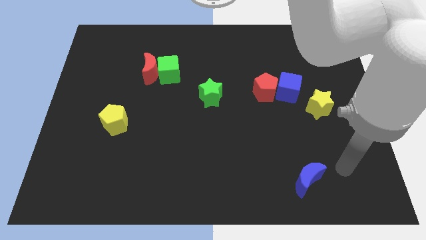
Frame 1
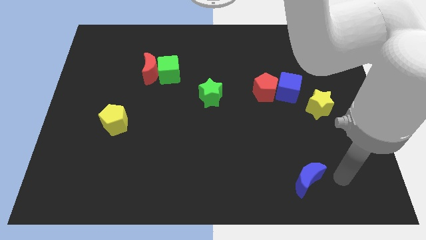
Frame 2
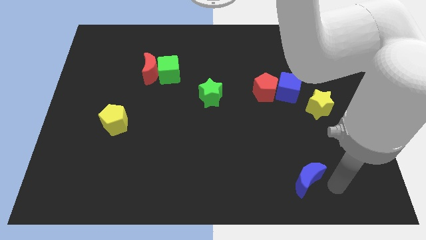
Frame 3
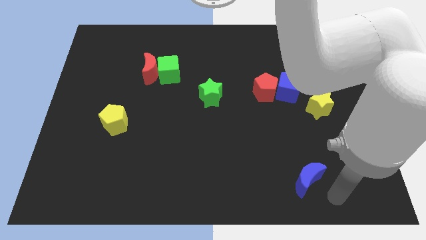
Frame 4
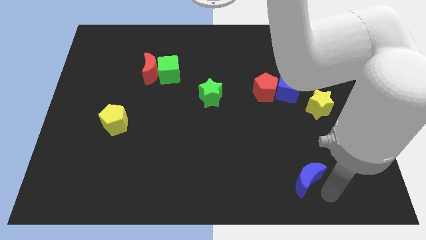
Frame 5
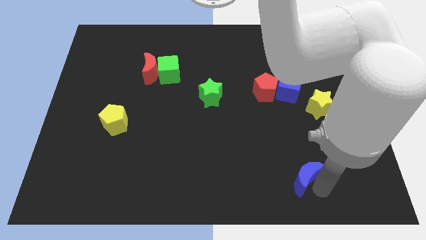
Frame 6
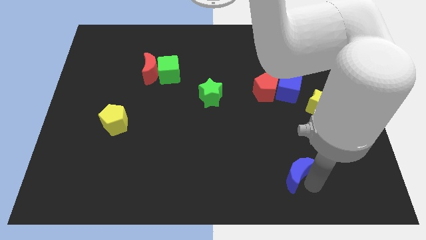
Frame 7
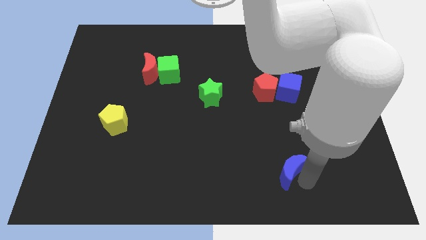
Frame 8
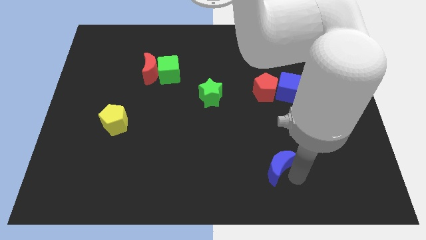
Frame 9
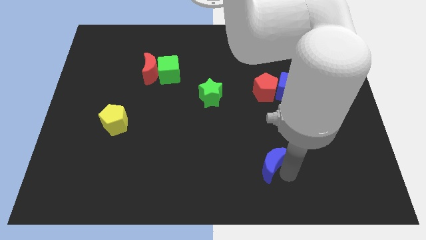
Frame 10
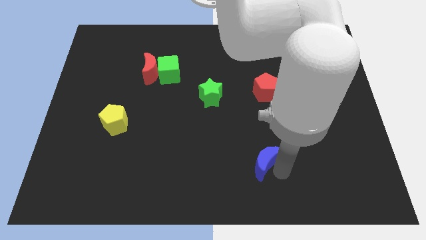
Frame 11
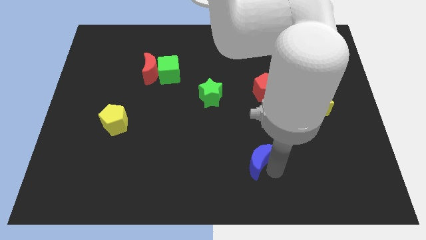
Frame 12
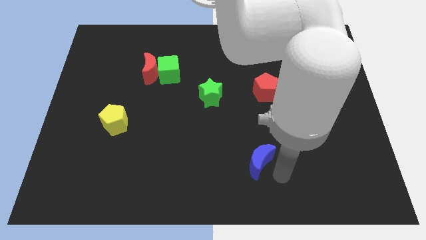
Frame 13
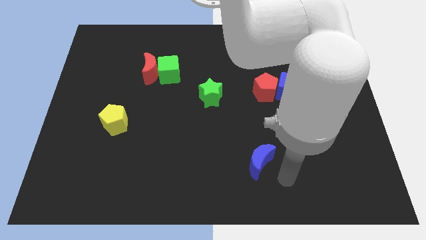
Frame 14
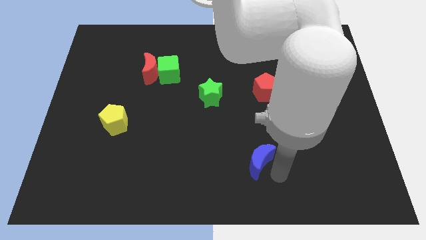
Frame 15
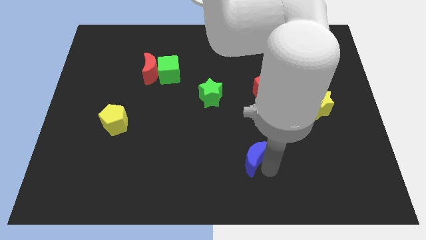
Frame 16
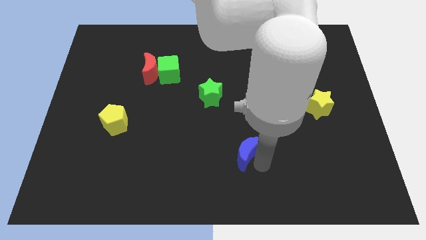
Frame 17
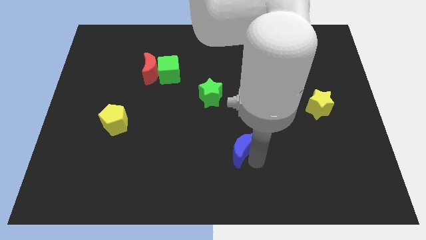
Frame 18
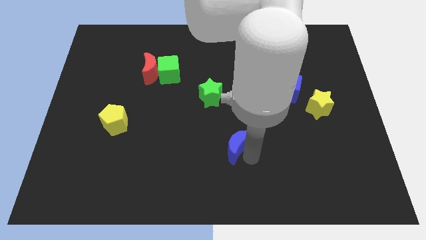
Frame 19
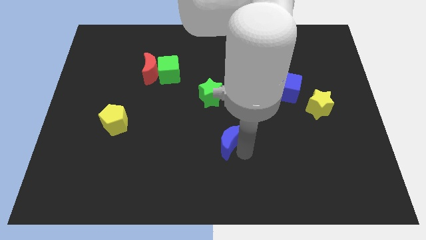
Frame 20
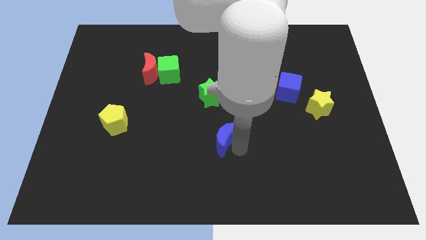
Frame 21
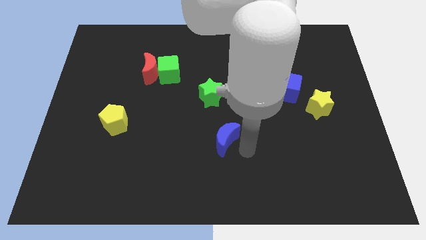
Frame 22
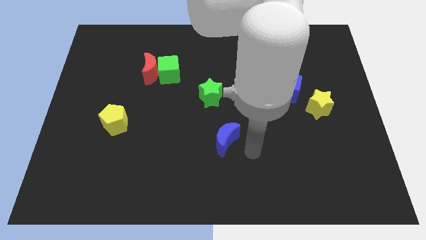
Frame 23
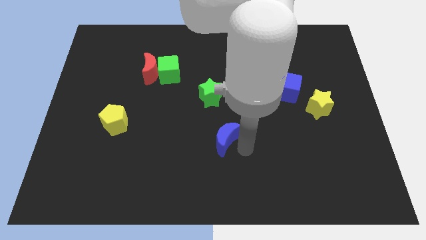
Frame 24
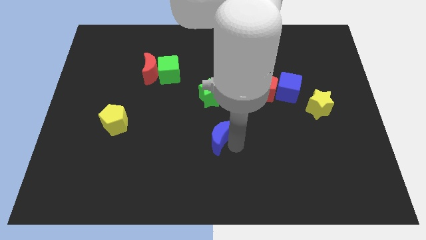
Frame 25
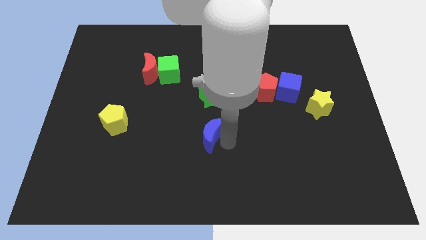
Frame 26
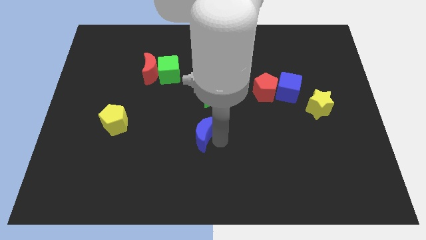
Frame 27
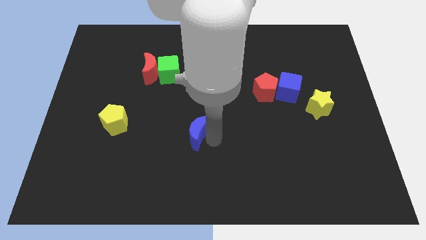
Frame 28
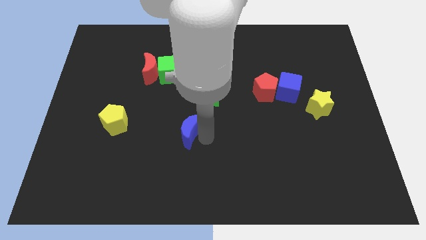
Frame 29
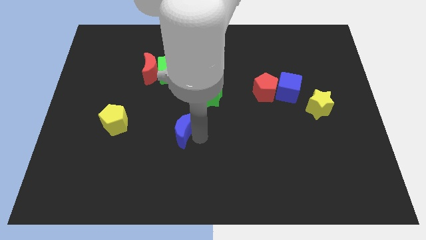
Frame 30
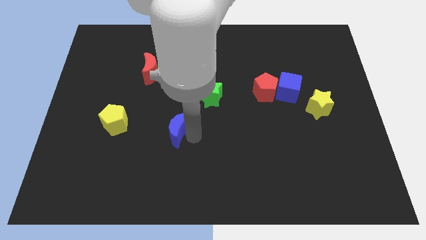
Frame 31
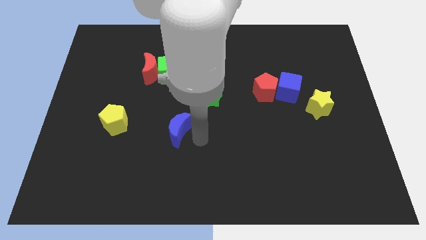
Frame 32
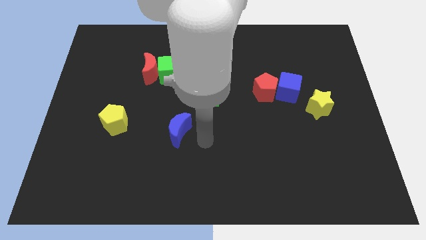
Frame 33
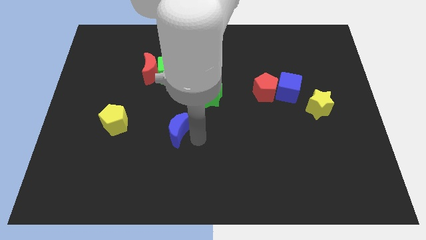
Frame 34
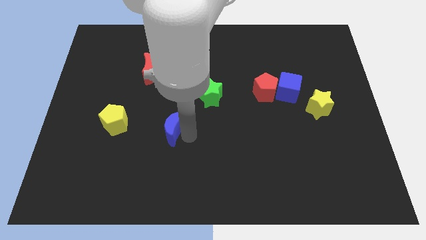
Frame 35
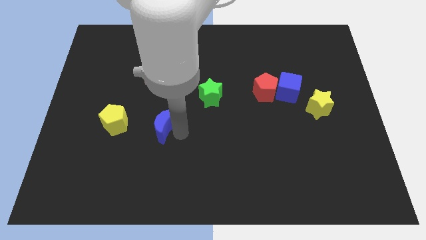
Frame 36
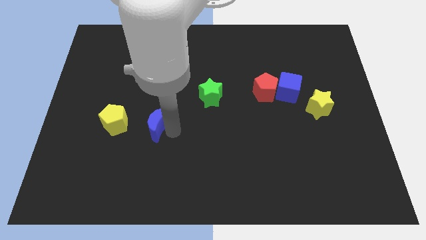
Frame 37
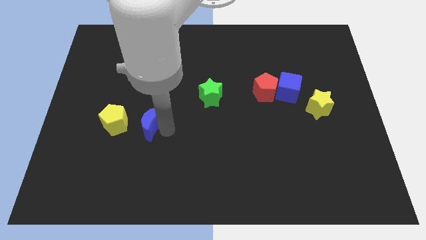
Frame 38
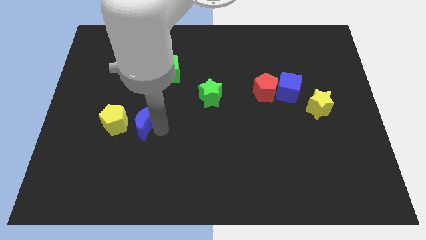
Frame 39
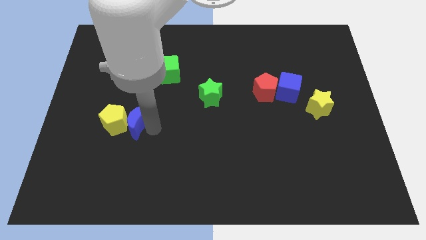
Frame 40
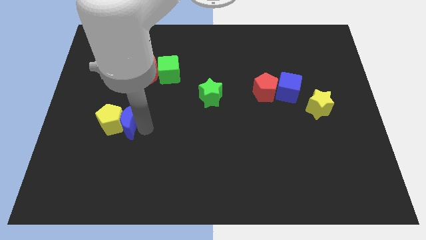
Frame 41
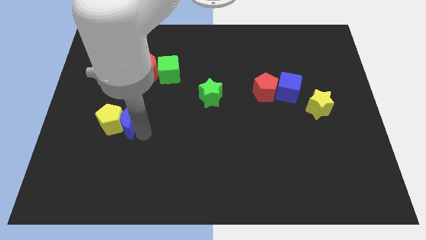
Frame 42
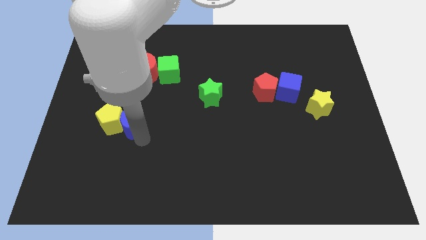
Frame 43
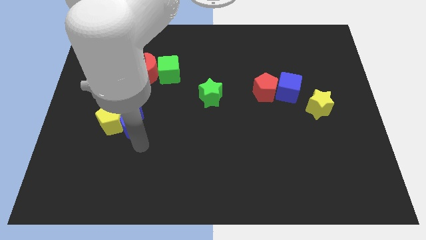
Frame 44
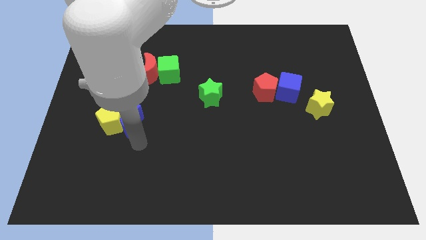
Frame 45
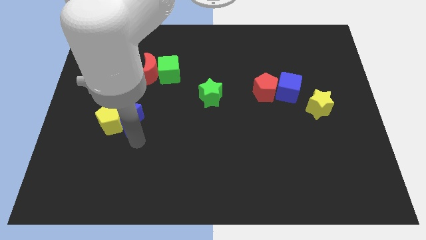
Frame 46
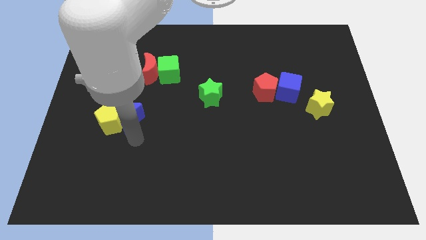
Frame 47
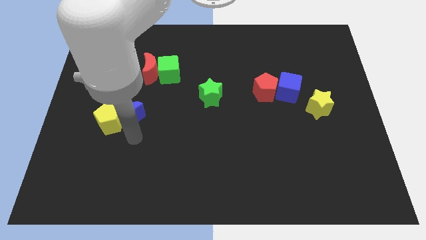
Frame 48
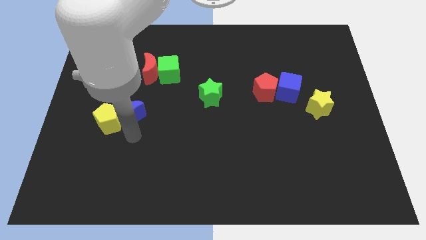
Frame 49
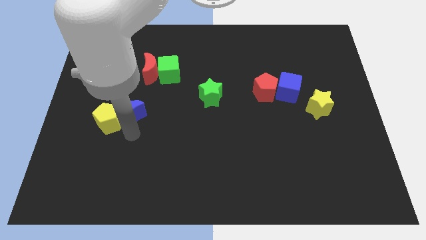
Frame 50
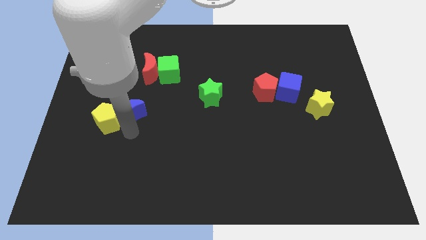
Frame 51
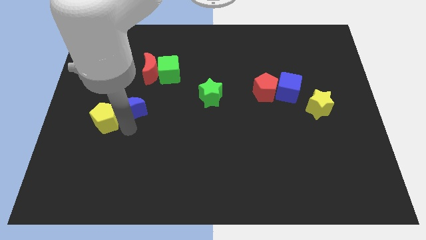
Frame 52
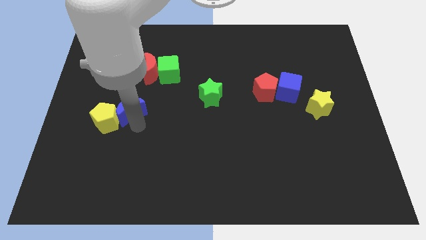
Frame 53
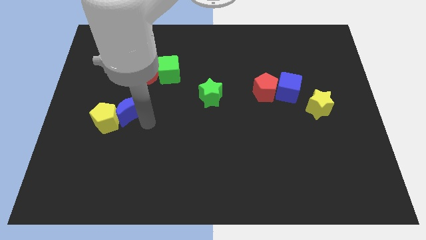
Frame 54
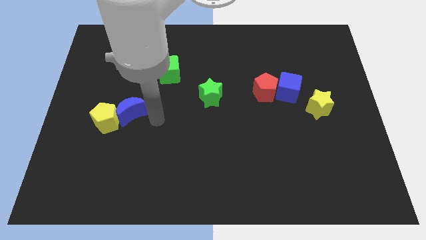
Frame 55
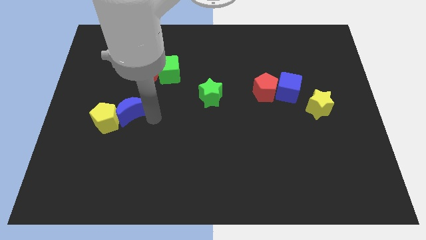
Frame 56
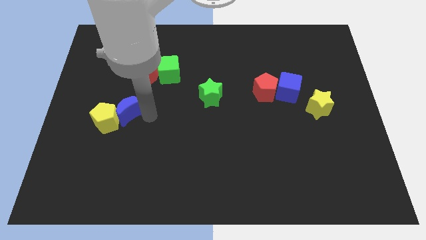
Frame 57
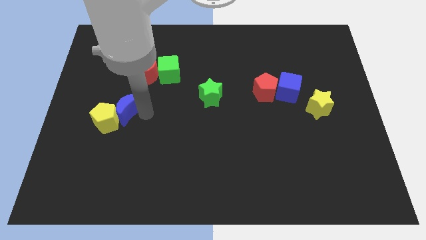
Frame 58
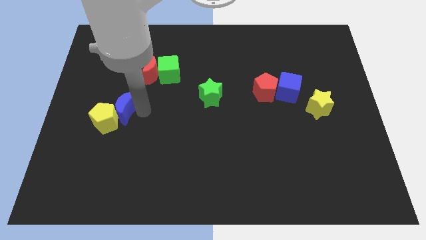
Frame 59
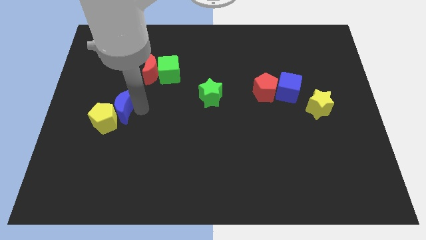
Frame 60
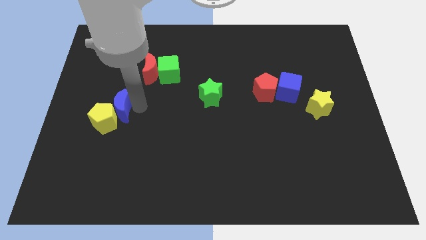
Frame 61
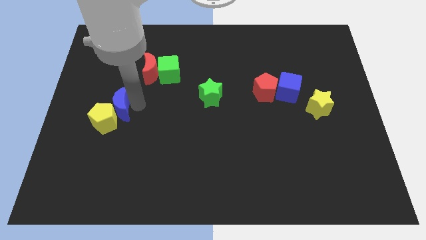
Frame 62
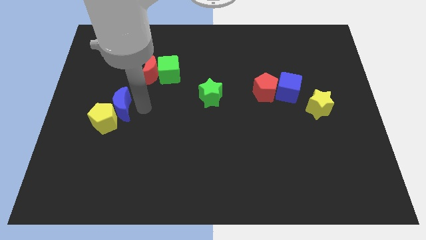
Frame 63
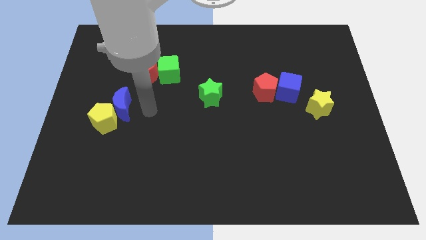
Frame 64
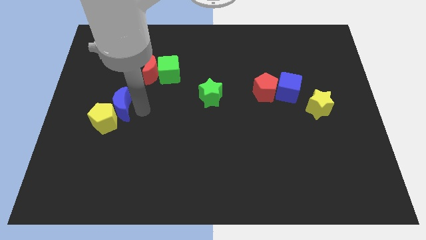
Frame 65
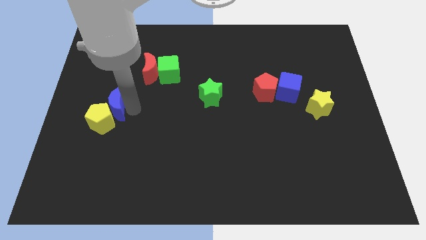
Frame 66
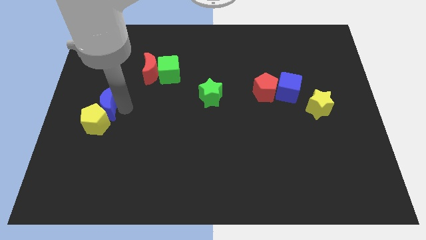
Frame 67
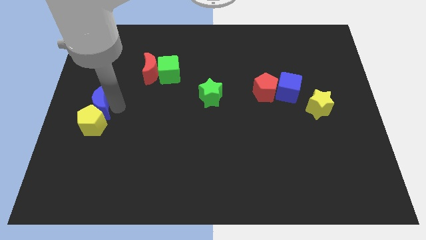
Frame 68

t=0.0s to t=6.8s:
slide the blue moon to the top left side of the yellow pentagon
